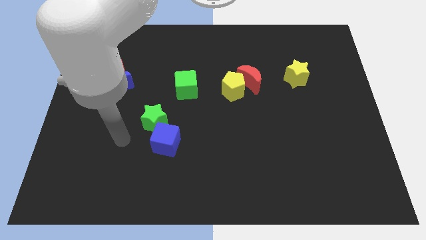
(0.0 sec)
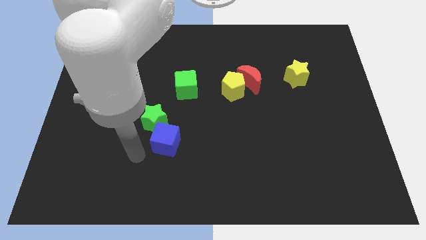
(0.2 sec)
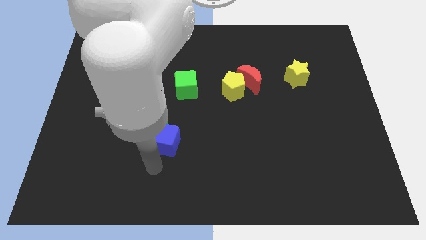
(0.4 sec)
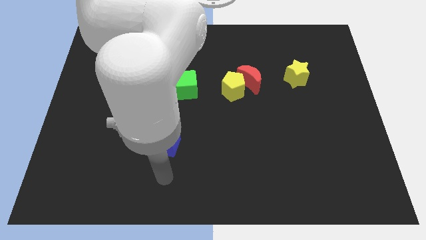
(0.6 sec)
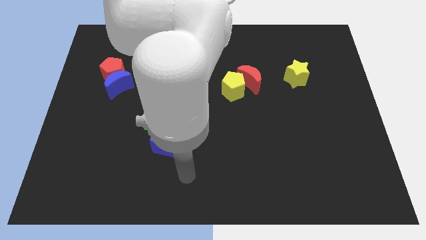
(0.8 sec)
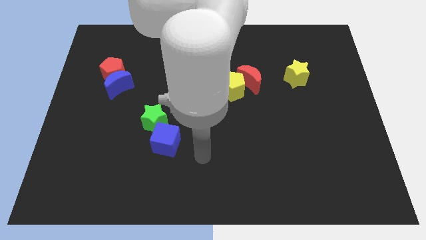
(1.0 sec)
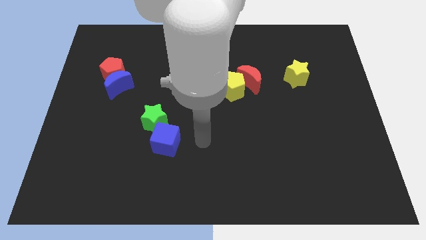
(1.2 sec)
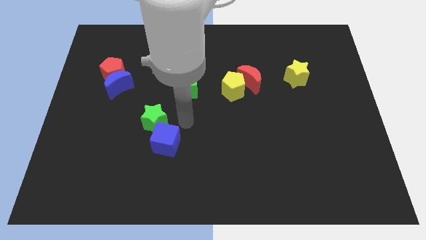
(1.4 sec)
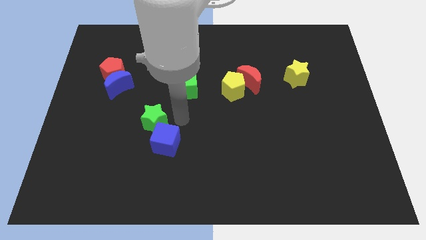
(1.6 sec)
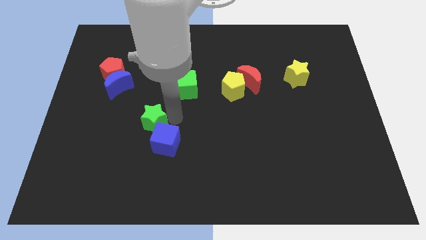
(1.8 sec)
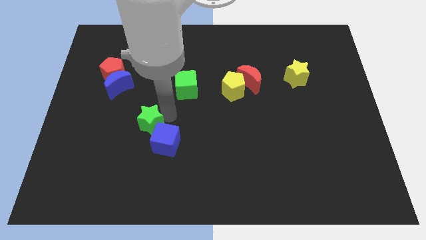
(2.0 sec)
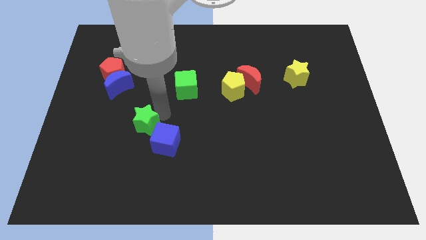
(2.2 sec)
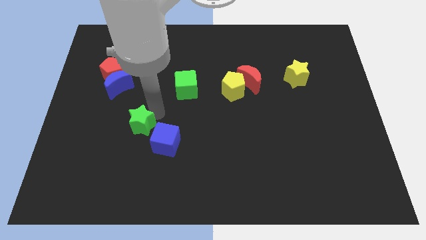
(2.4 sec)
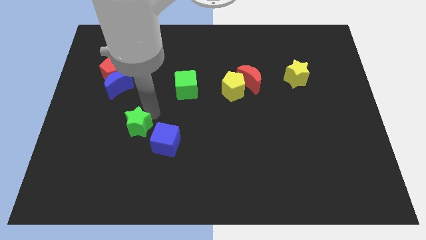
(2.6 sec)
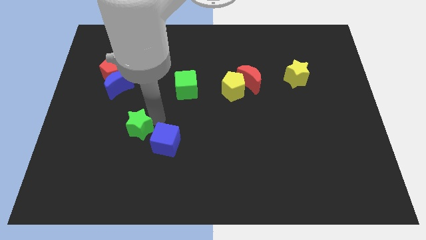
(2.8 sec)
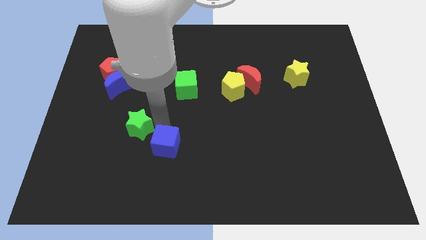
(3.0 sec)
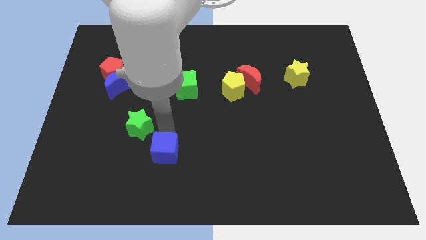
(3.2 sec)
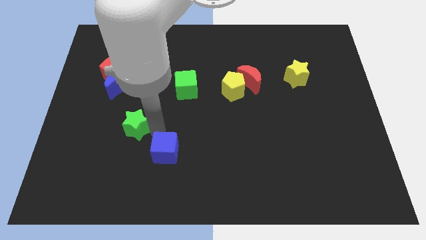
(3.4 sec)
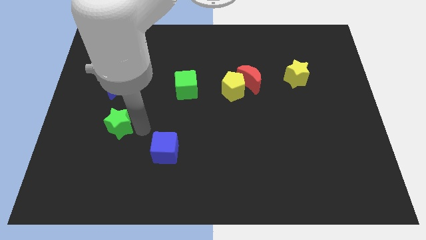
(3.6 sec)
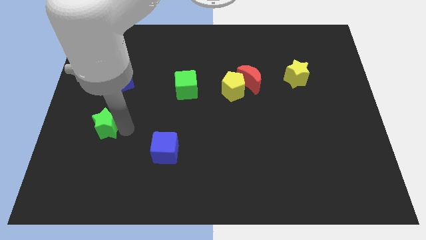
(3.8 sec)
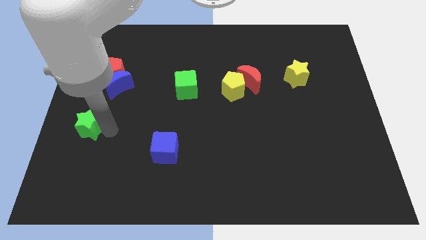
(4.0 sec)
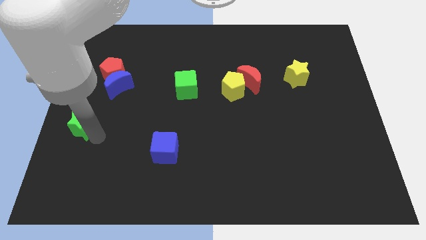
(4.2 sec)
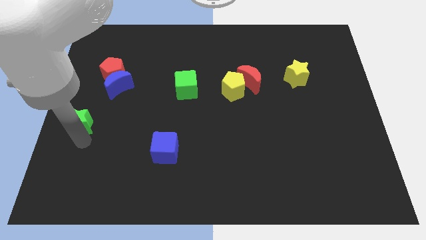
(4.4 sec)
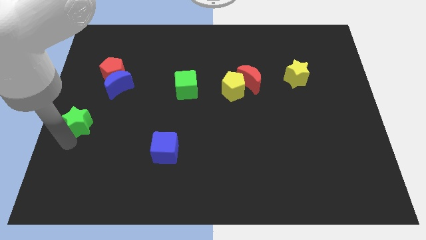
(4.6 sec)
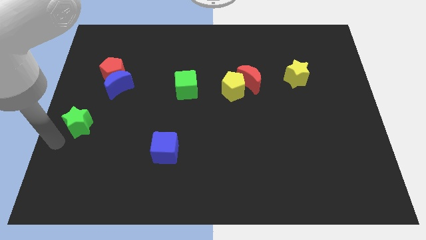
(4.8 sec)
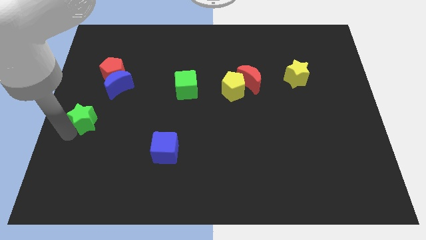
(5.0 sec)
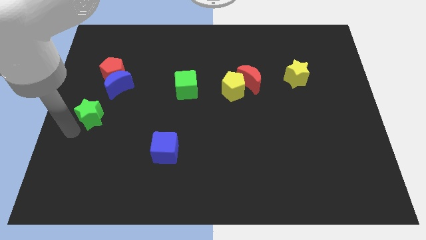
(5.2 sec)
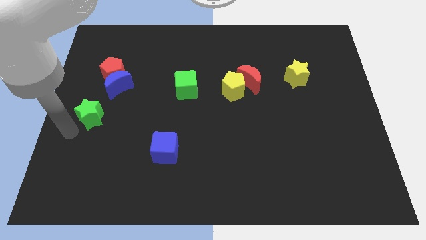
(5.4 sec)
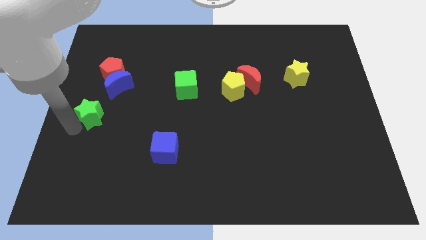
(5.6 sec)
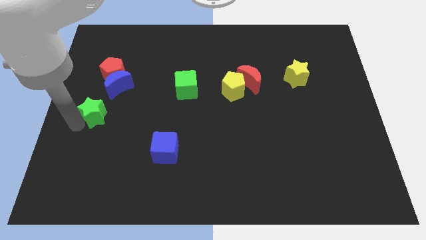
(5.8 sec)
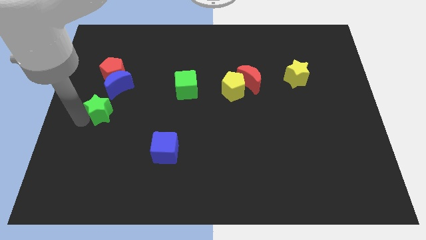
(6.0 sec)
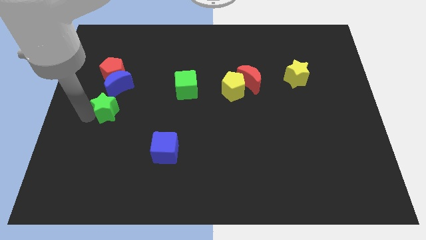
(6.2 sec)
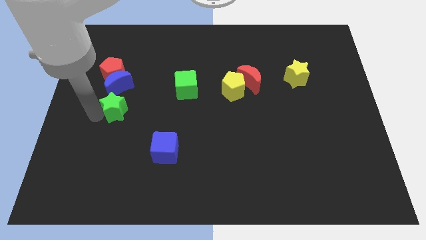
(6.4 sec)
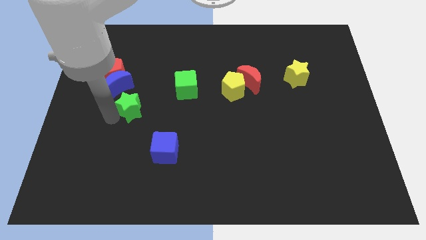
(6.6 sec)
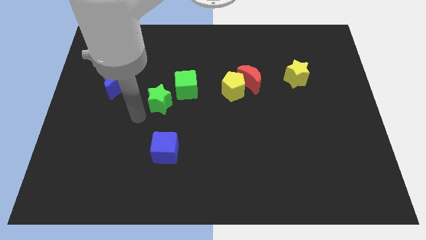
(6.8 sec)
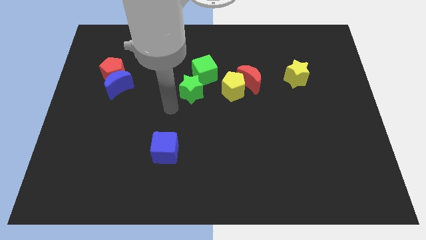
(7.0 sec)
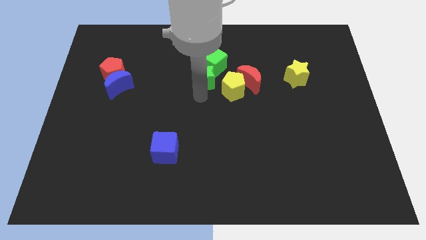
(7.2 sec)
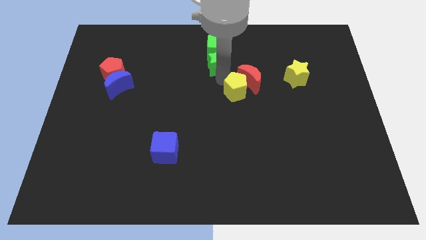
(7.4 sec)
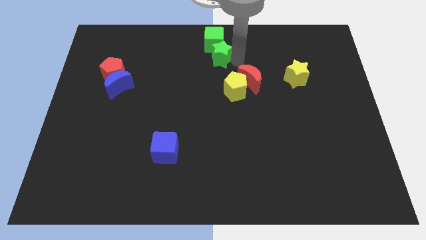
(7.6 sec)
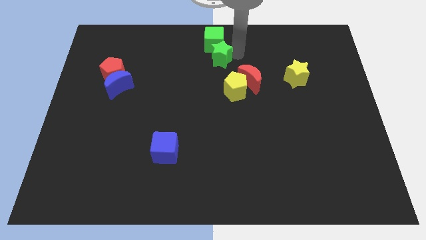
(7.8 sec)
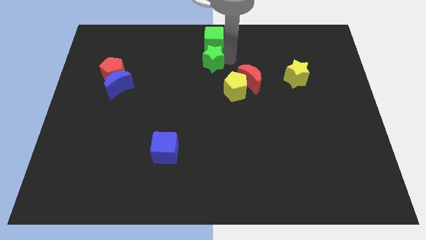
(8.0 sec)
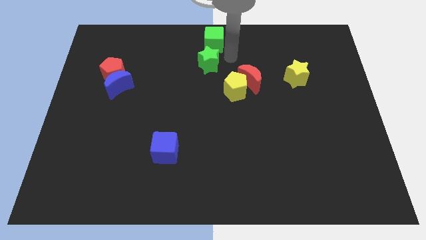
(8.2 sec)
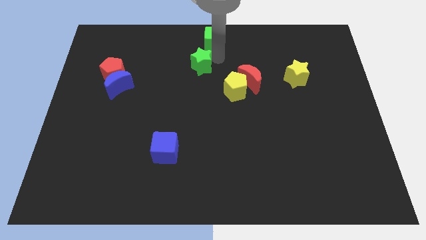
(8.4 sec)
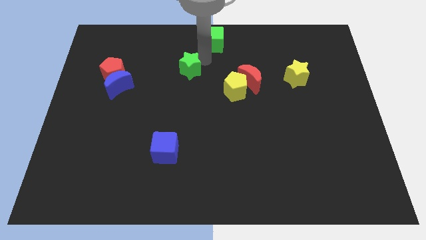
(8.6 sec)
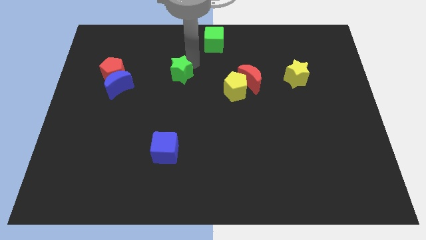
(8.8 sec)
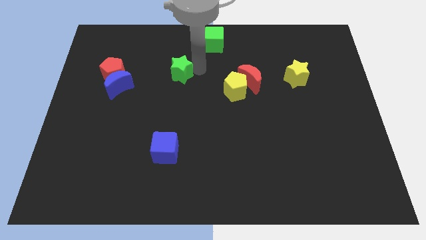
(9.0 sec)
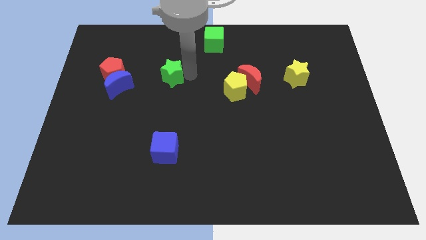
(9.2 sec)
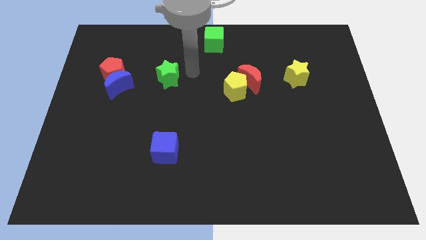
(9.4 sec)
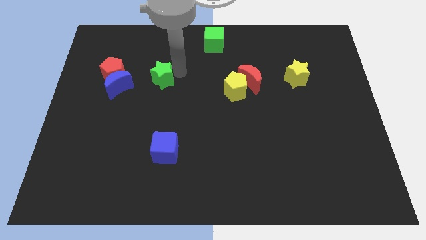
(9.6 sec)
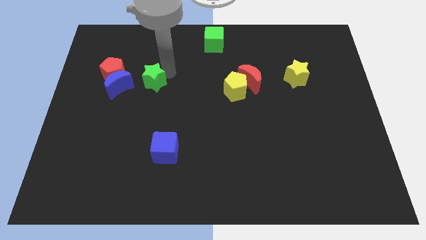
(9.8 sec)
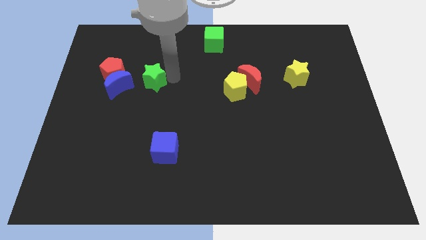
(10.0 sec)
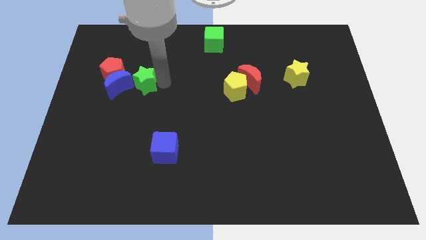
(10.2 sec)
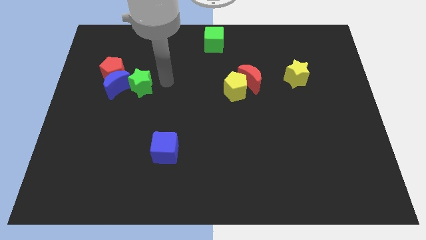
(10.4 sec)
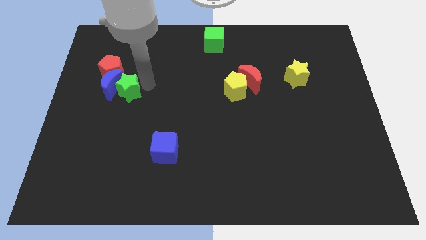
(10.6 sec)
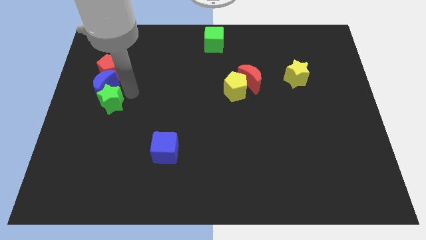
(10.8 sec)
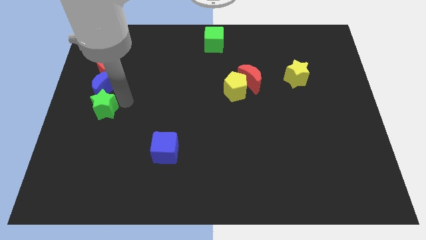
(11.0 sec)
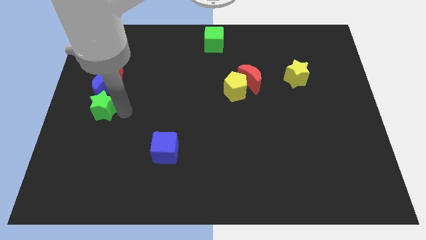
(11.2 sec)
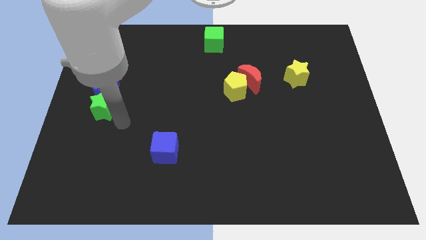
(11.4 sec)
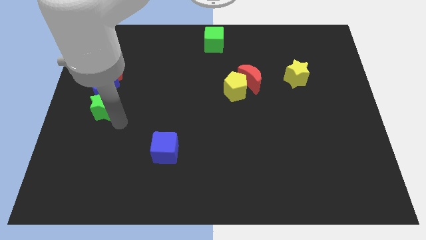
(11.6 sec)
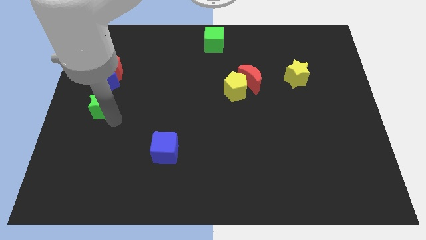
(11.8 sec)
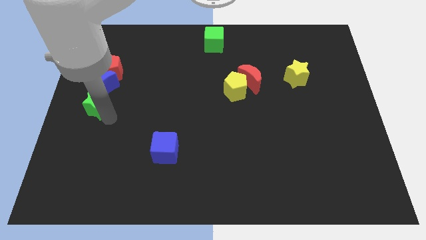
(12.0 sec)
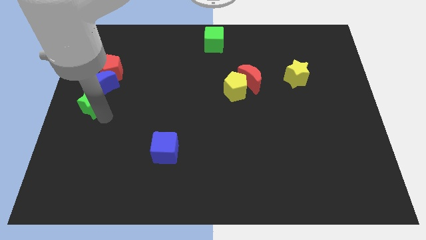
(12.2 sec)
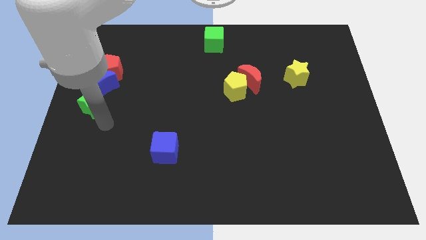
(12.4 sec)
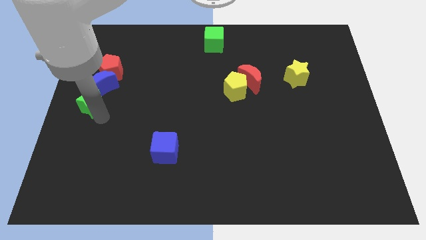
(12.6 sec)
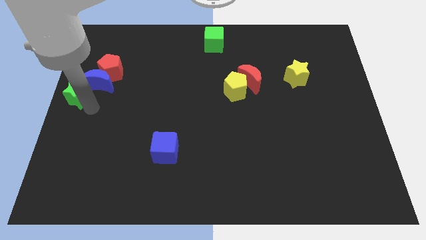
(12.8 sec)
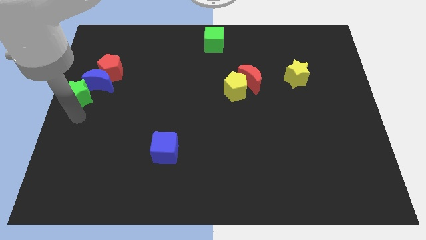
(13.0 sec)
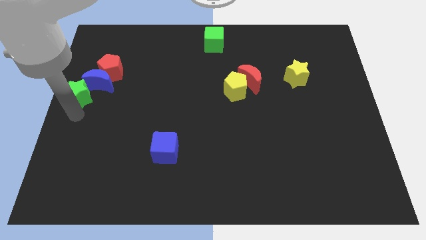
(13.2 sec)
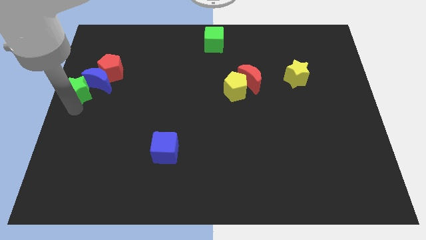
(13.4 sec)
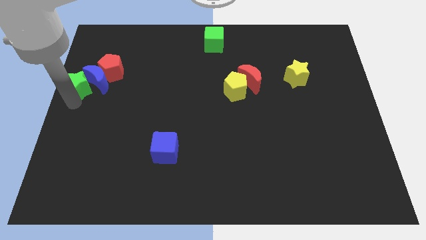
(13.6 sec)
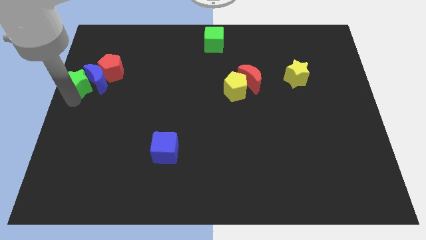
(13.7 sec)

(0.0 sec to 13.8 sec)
move the green star diagonally up and to the left of the blue moon
